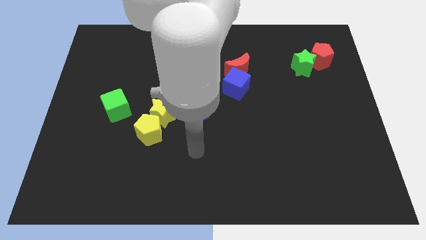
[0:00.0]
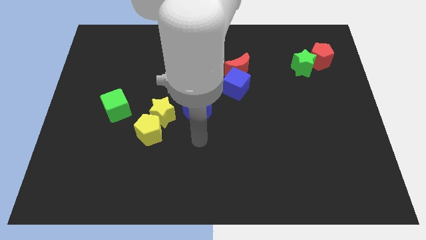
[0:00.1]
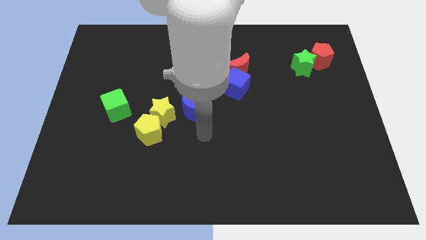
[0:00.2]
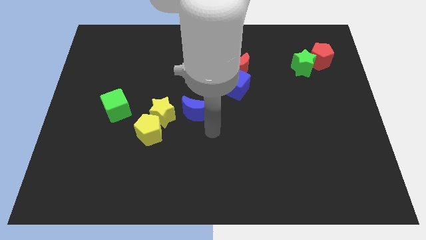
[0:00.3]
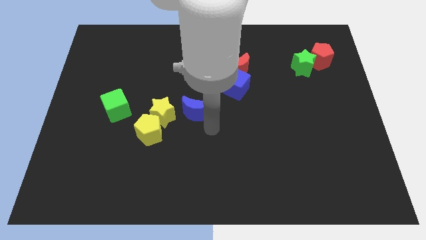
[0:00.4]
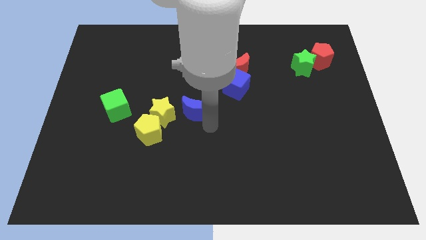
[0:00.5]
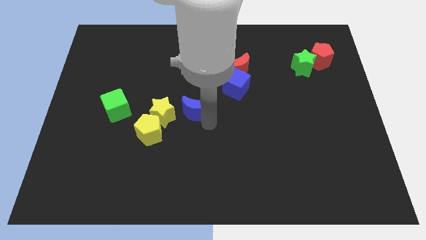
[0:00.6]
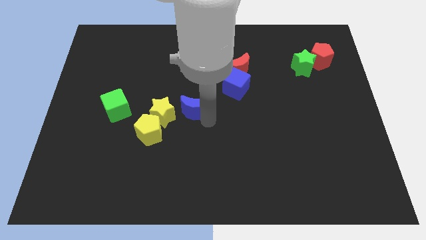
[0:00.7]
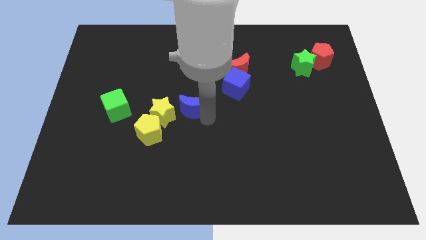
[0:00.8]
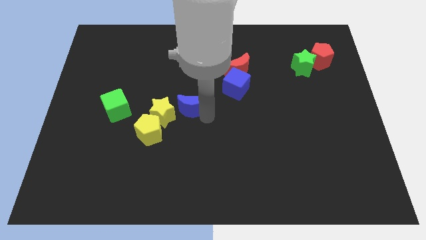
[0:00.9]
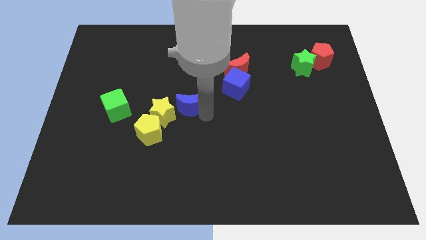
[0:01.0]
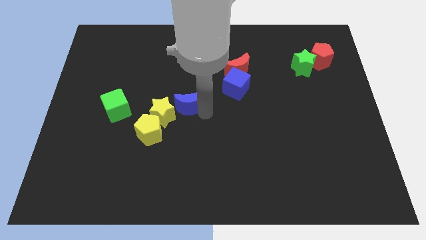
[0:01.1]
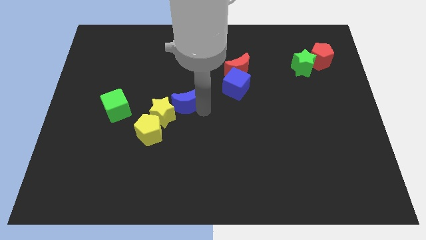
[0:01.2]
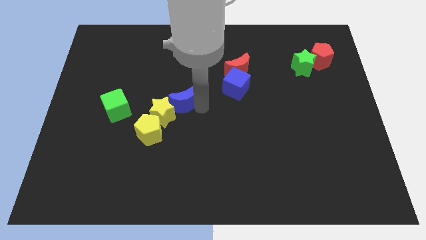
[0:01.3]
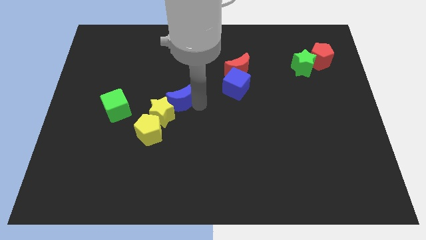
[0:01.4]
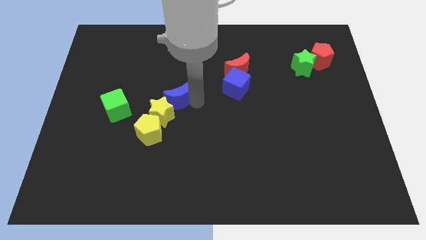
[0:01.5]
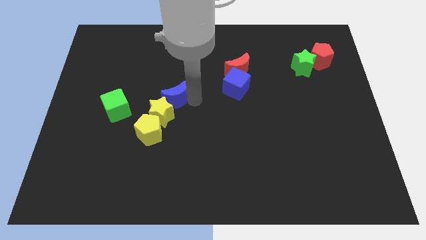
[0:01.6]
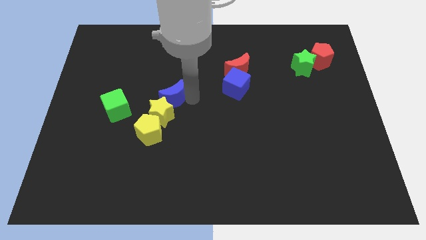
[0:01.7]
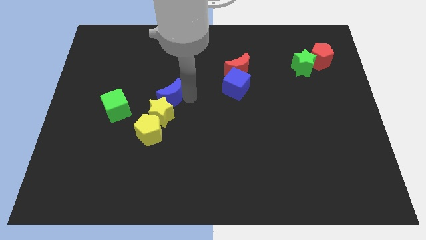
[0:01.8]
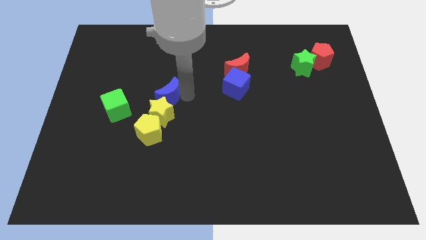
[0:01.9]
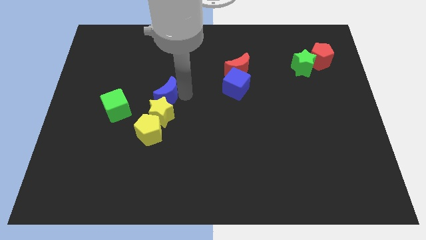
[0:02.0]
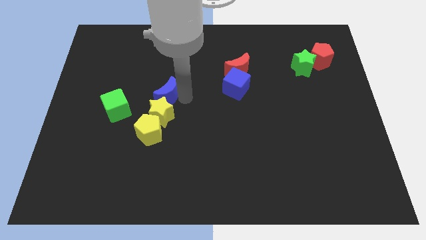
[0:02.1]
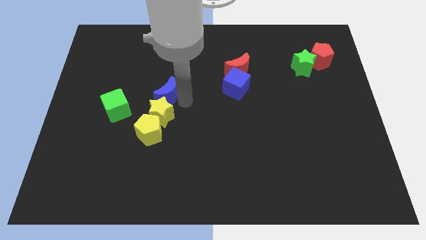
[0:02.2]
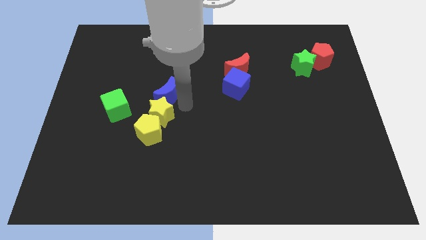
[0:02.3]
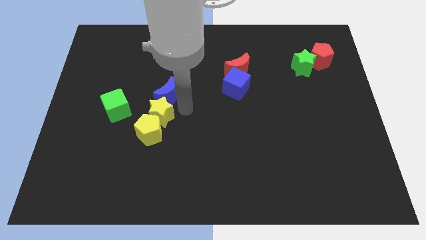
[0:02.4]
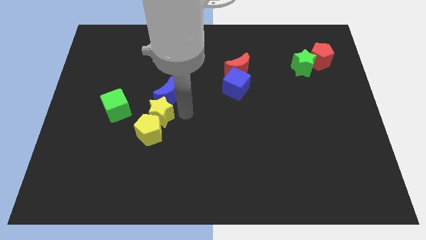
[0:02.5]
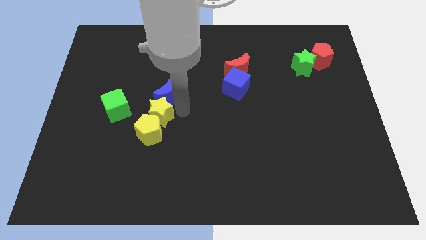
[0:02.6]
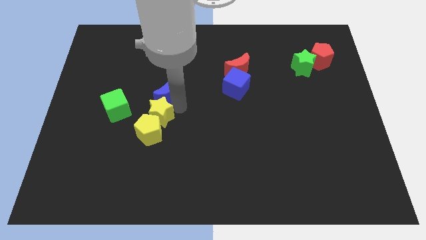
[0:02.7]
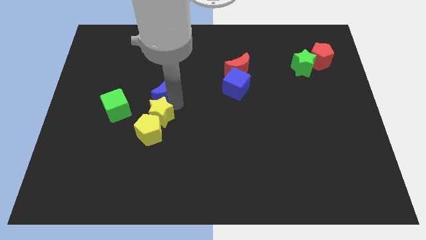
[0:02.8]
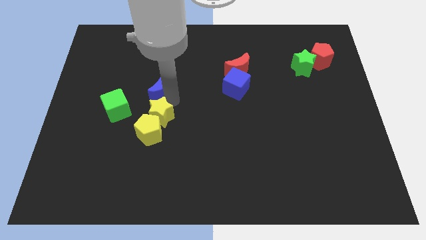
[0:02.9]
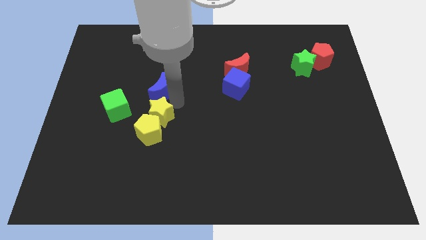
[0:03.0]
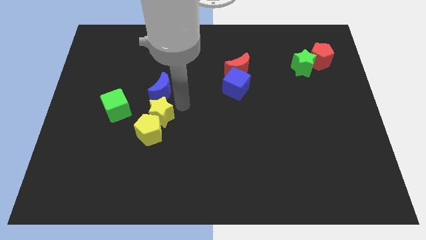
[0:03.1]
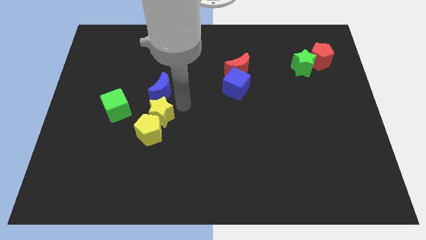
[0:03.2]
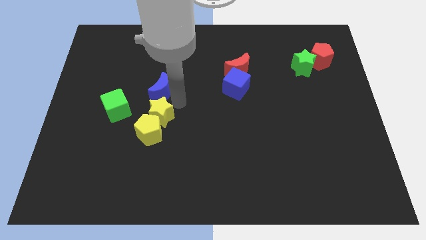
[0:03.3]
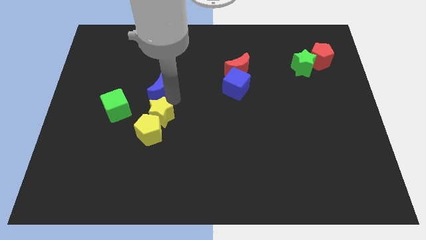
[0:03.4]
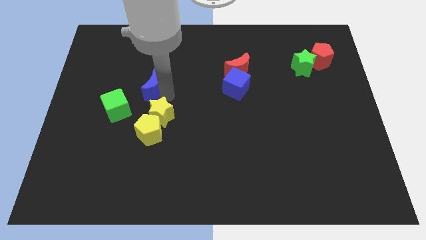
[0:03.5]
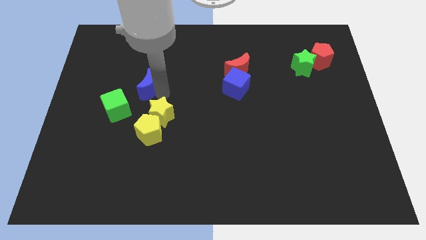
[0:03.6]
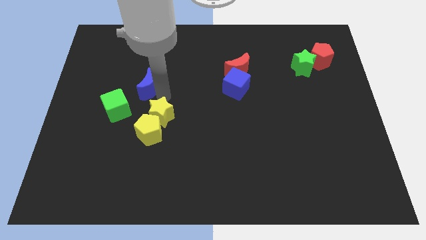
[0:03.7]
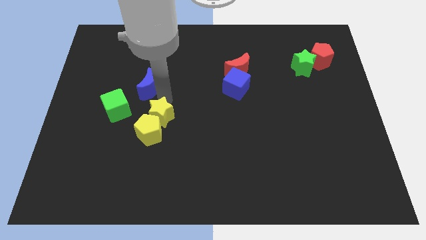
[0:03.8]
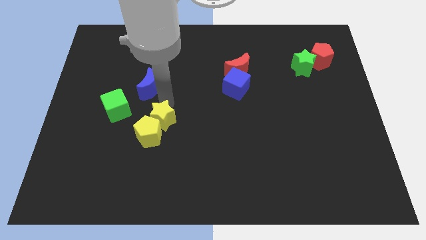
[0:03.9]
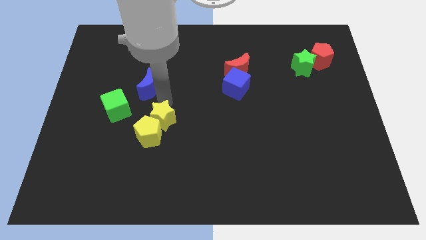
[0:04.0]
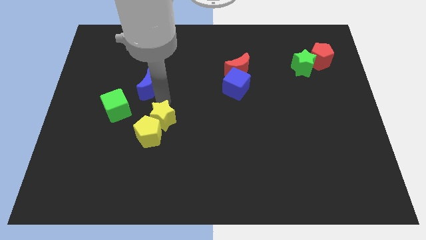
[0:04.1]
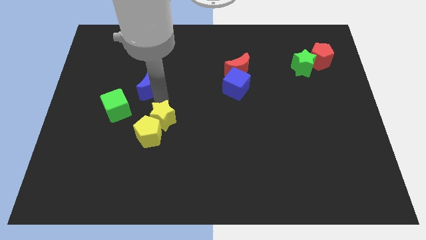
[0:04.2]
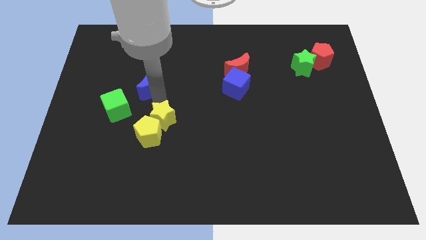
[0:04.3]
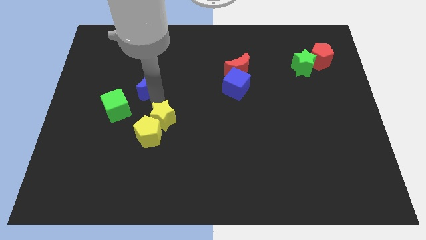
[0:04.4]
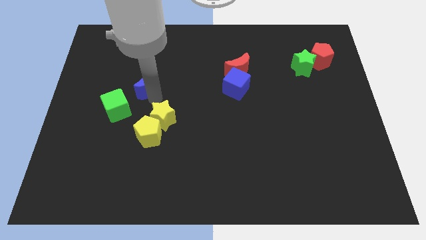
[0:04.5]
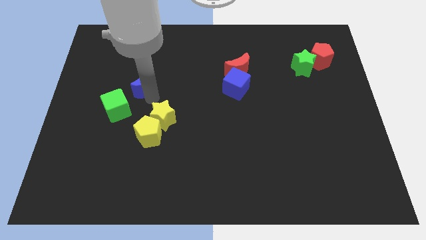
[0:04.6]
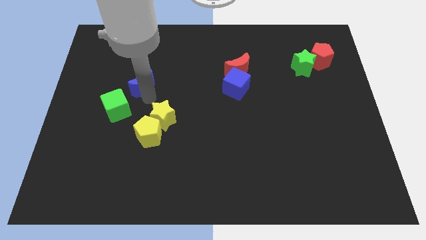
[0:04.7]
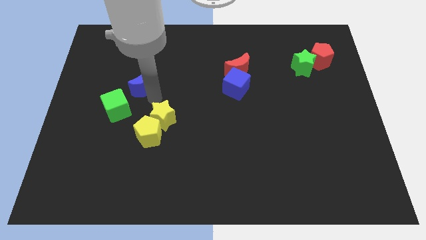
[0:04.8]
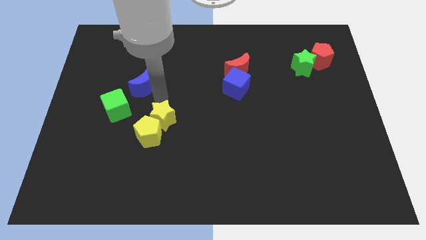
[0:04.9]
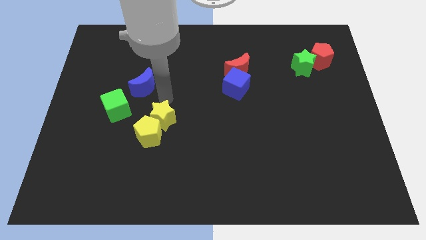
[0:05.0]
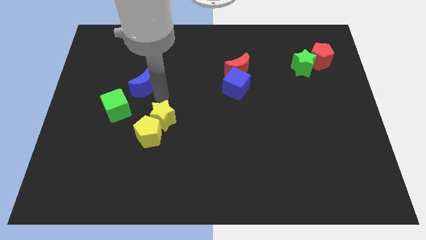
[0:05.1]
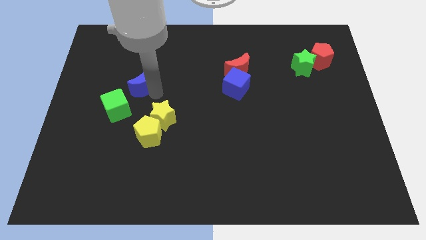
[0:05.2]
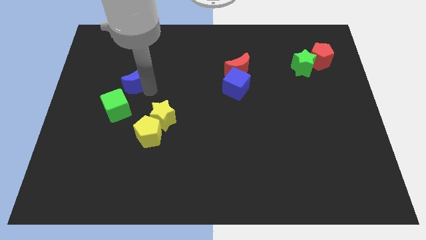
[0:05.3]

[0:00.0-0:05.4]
slide the blue moon to the top of the green cube
